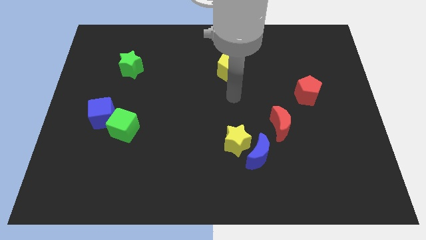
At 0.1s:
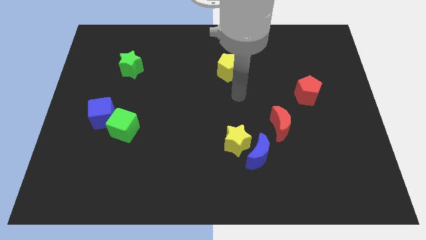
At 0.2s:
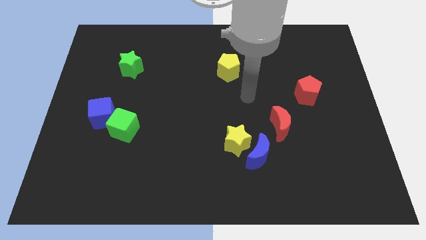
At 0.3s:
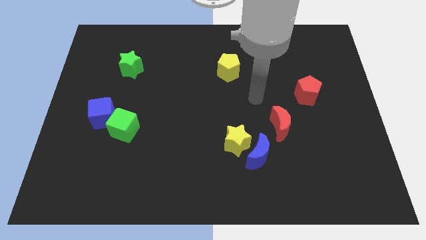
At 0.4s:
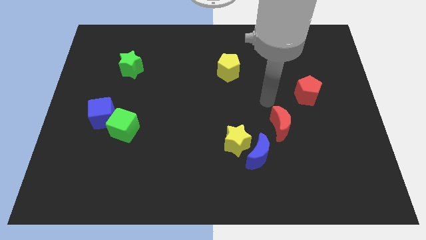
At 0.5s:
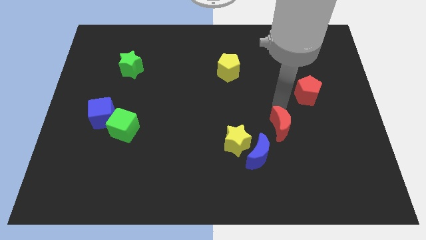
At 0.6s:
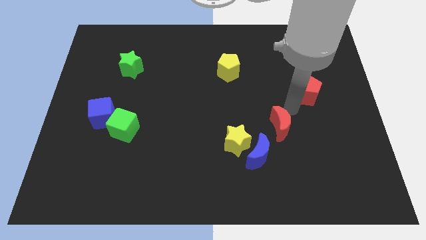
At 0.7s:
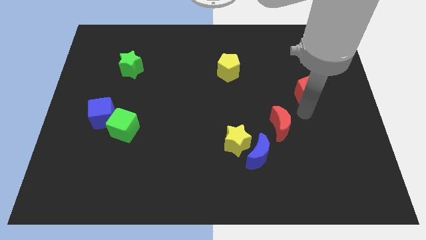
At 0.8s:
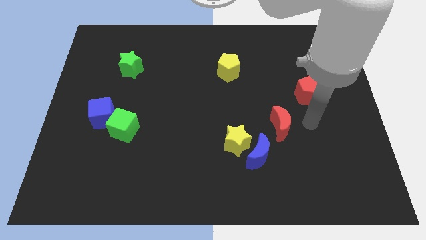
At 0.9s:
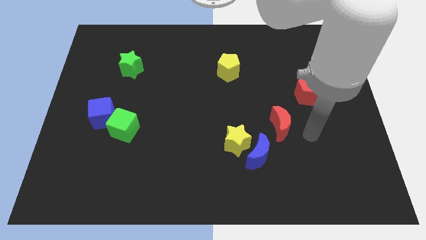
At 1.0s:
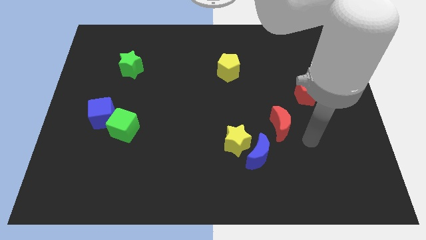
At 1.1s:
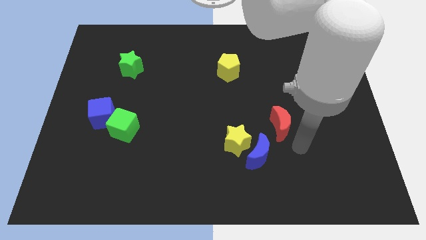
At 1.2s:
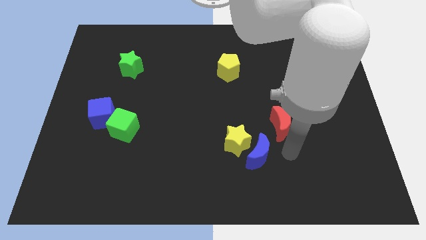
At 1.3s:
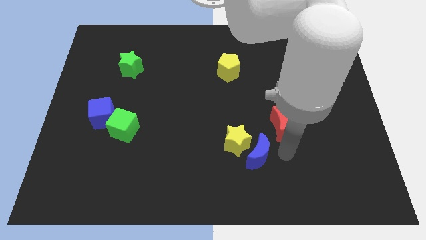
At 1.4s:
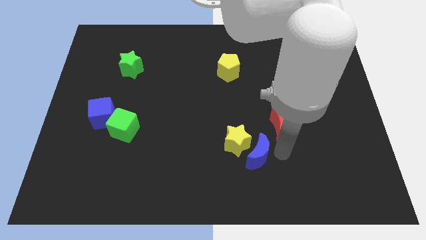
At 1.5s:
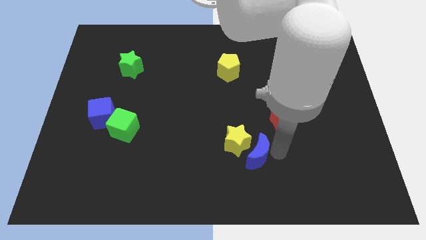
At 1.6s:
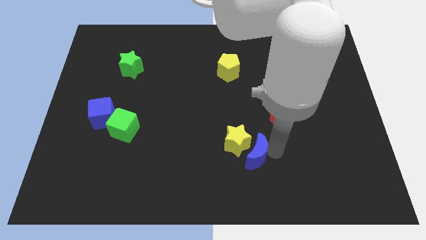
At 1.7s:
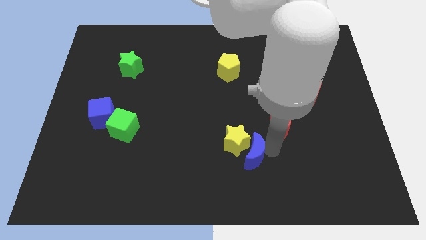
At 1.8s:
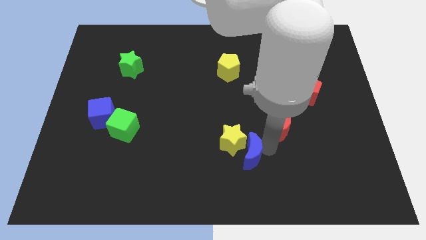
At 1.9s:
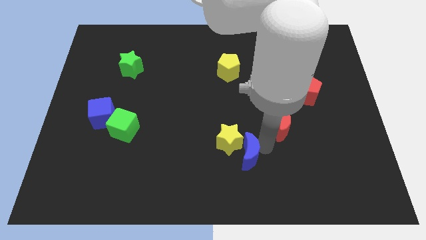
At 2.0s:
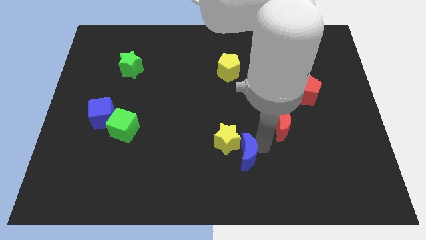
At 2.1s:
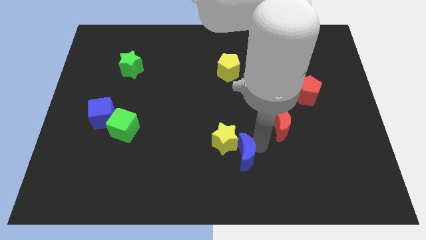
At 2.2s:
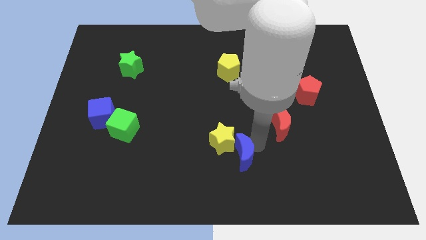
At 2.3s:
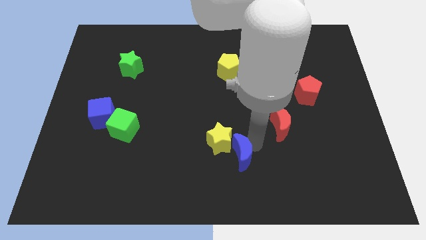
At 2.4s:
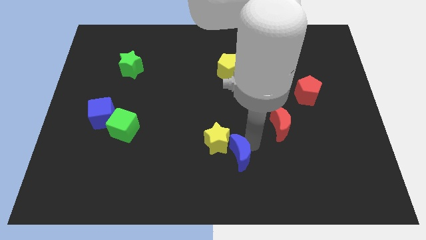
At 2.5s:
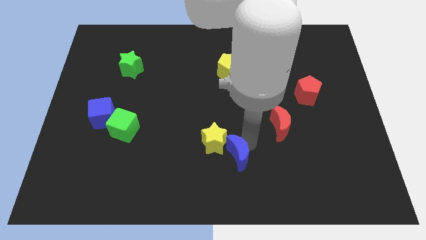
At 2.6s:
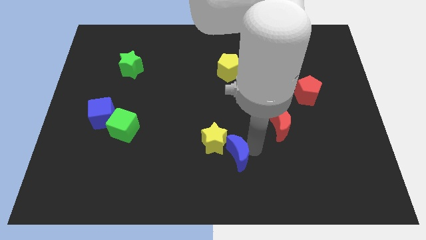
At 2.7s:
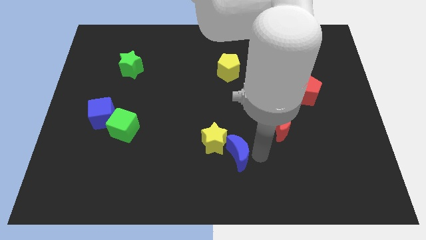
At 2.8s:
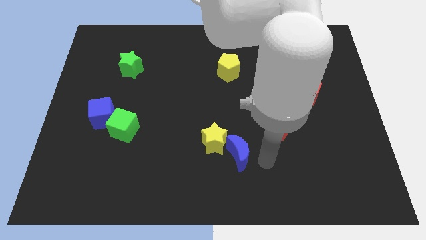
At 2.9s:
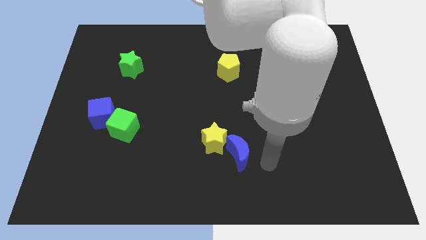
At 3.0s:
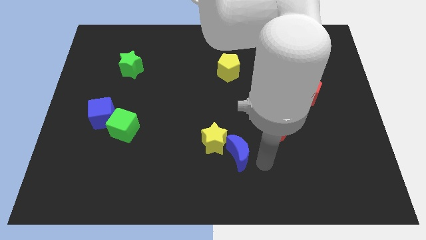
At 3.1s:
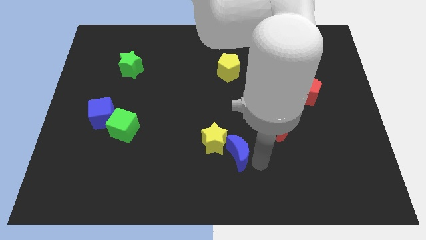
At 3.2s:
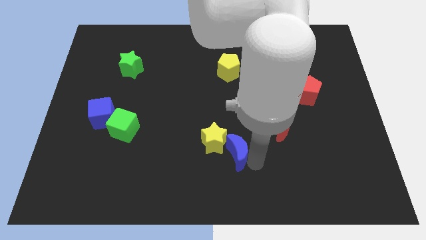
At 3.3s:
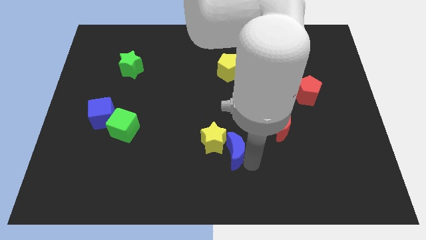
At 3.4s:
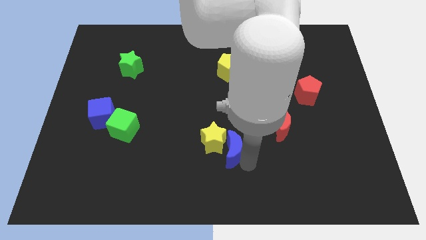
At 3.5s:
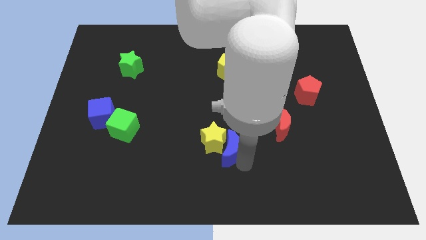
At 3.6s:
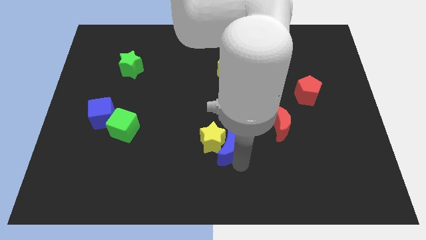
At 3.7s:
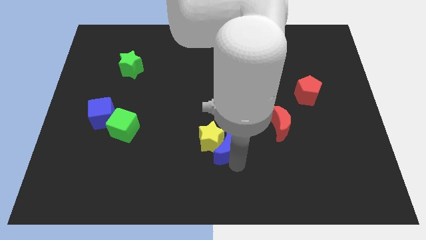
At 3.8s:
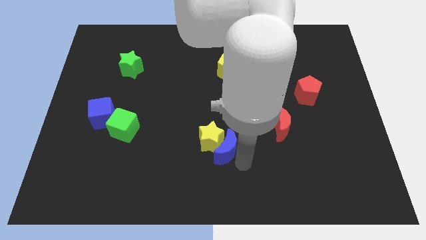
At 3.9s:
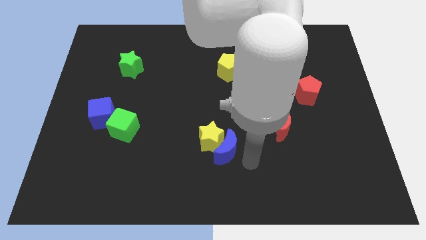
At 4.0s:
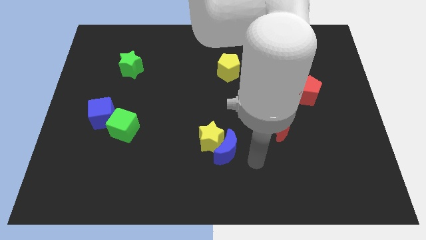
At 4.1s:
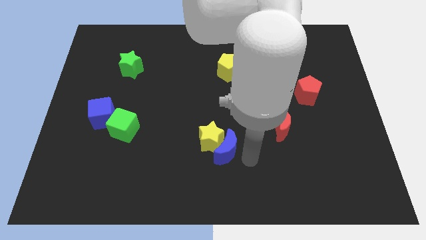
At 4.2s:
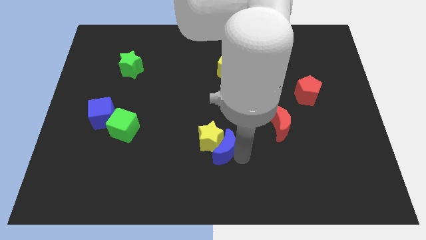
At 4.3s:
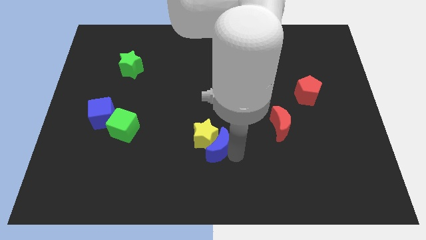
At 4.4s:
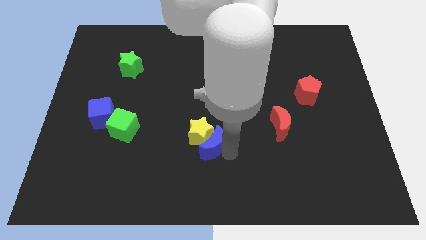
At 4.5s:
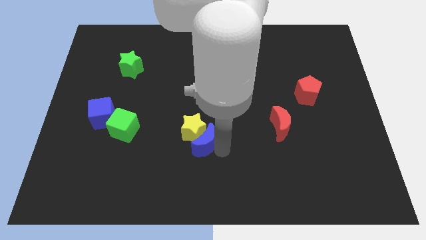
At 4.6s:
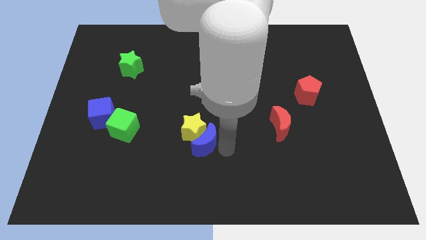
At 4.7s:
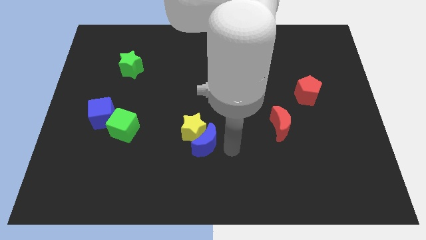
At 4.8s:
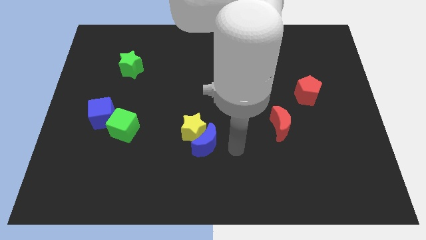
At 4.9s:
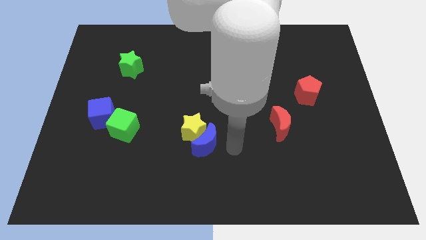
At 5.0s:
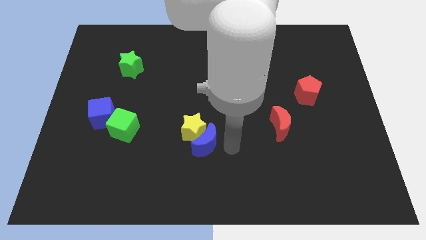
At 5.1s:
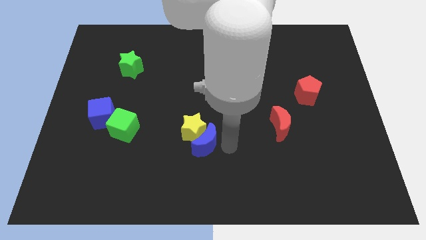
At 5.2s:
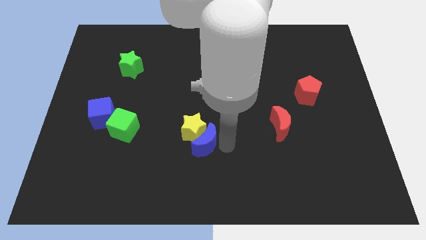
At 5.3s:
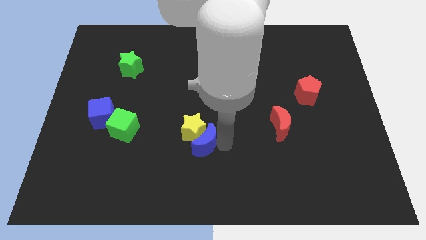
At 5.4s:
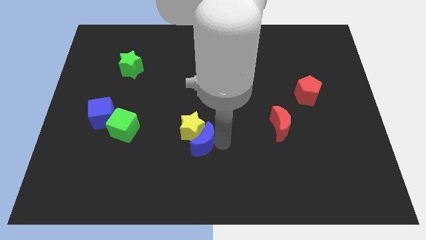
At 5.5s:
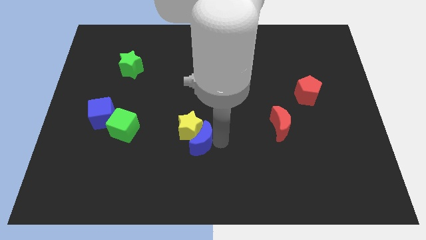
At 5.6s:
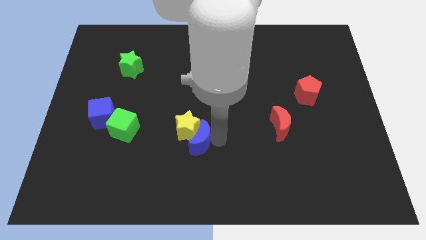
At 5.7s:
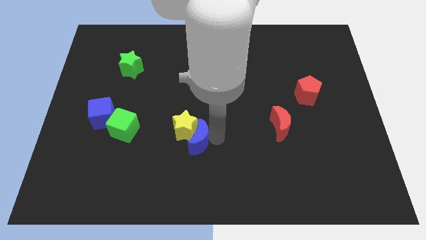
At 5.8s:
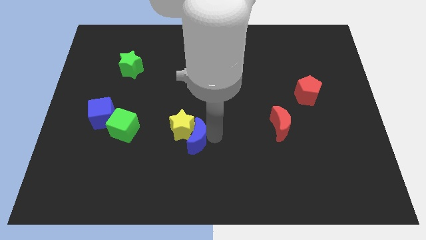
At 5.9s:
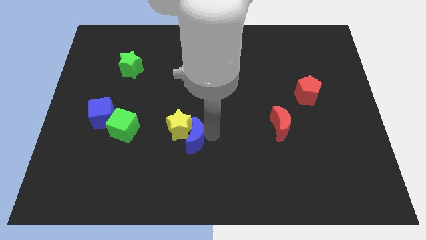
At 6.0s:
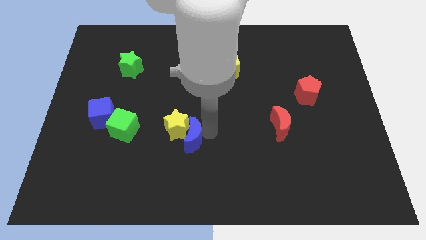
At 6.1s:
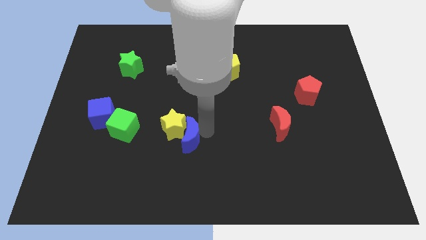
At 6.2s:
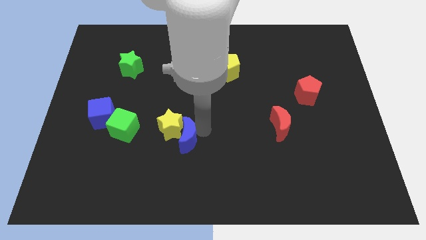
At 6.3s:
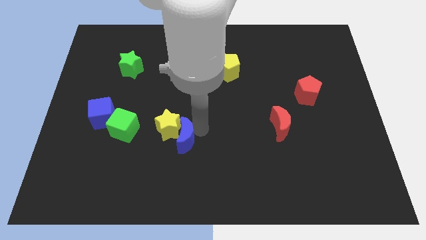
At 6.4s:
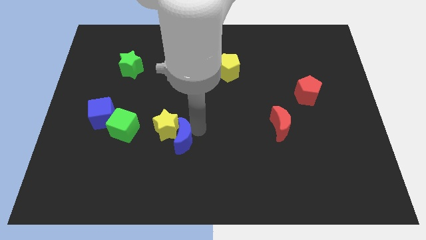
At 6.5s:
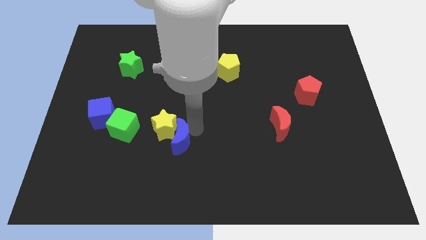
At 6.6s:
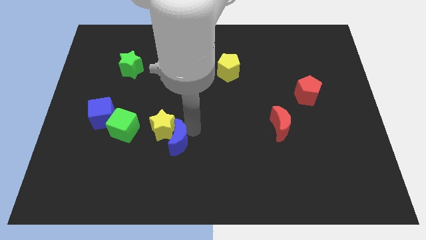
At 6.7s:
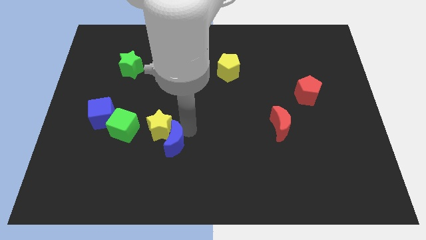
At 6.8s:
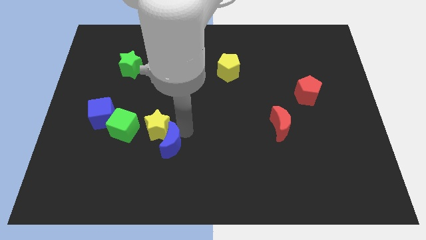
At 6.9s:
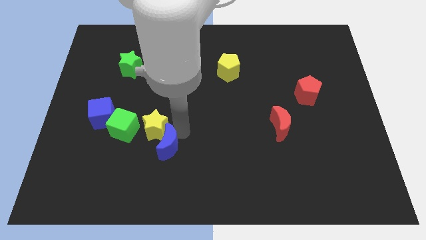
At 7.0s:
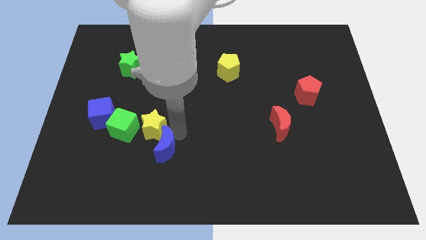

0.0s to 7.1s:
move the blue moon to the left

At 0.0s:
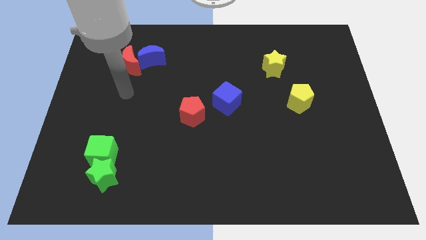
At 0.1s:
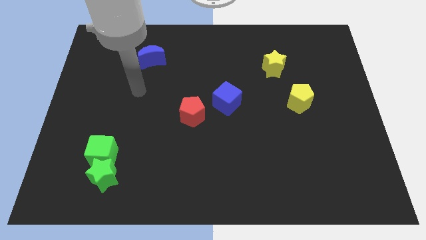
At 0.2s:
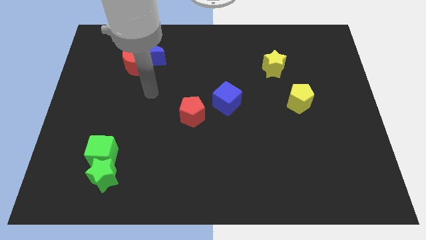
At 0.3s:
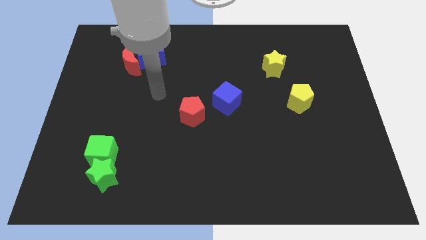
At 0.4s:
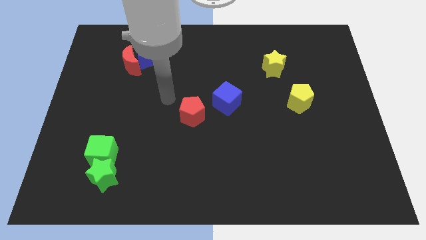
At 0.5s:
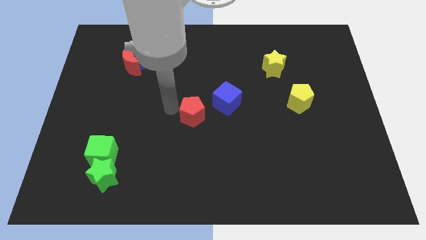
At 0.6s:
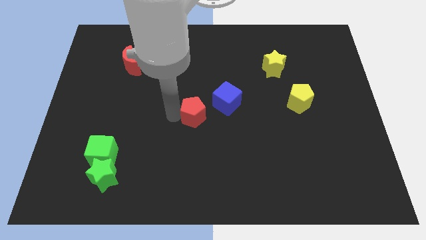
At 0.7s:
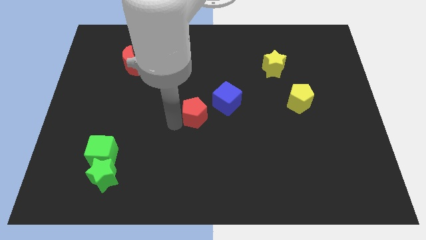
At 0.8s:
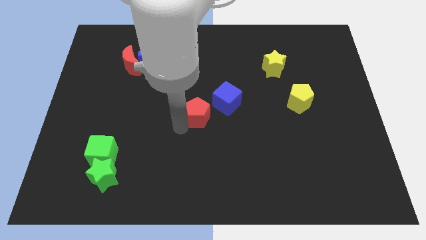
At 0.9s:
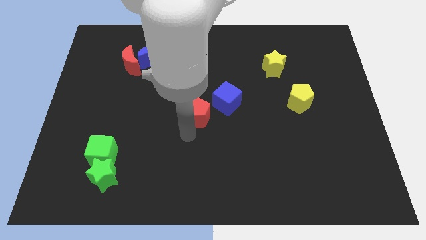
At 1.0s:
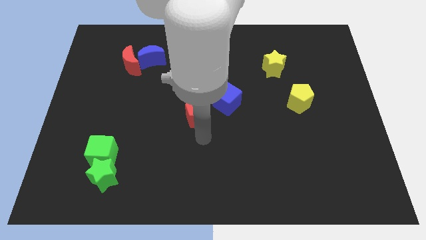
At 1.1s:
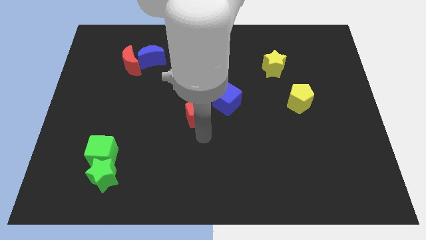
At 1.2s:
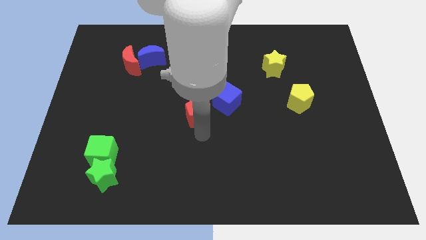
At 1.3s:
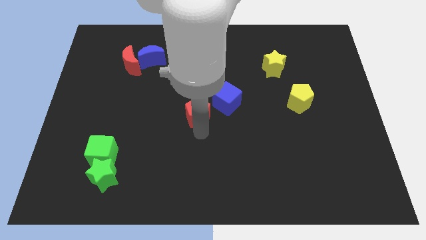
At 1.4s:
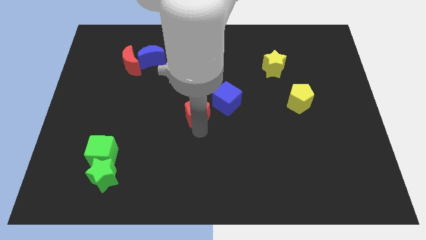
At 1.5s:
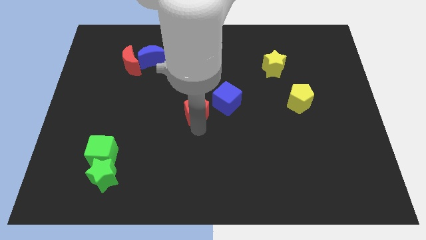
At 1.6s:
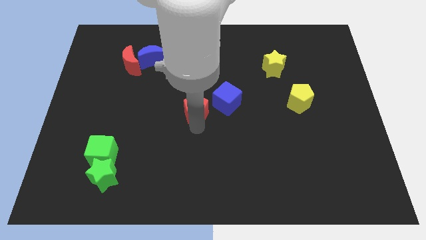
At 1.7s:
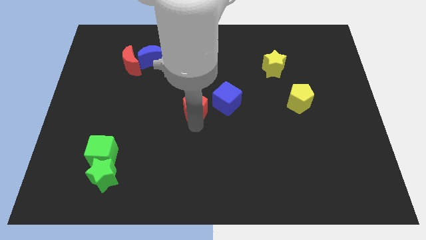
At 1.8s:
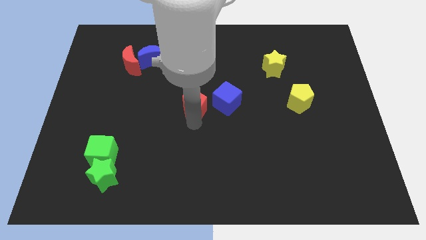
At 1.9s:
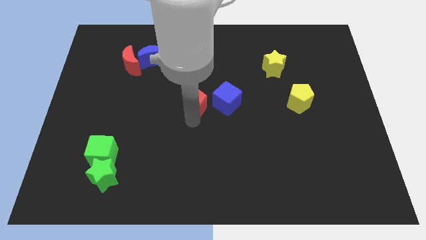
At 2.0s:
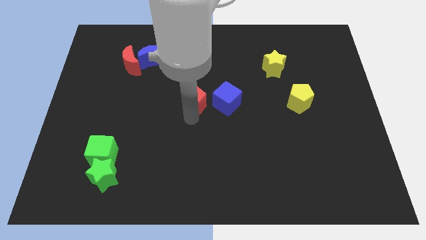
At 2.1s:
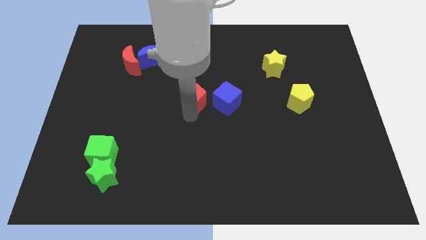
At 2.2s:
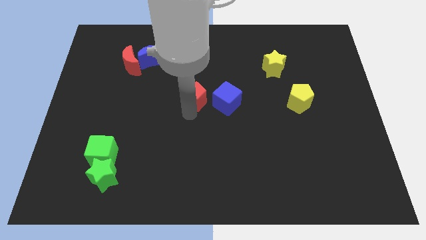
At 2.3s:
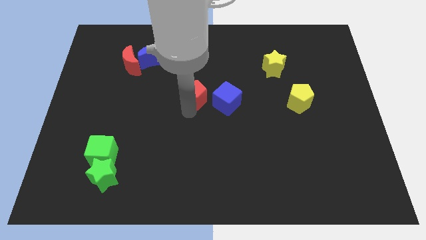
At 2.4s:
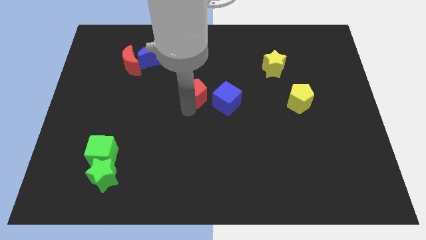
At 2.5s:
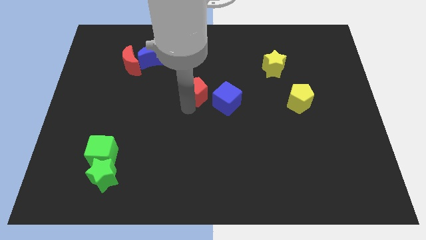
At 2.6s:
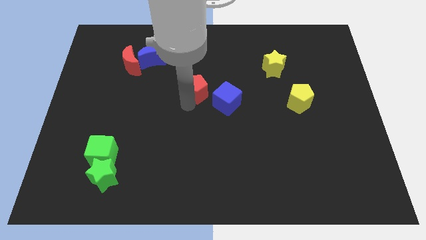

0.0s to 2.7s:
slightly push the red pentagon up
